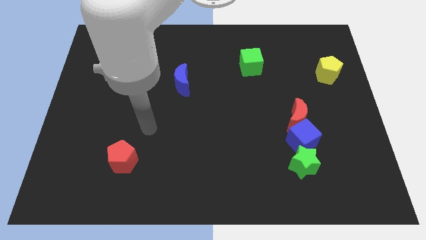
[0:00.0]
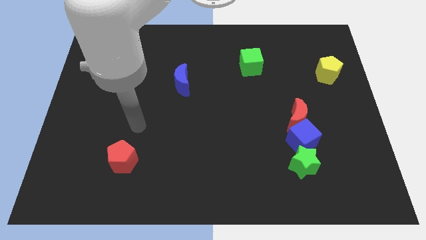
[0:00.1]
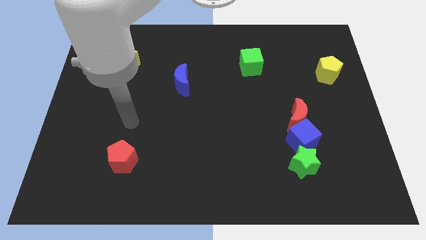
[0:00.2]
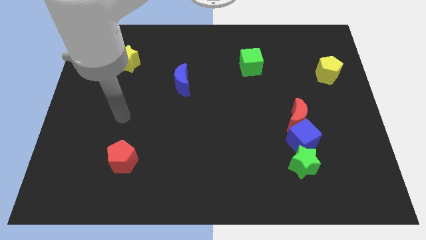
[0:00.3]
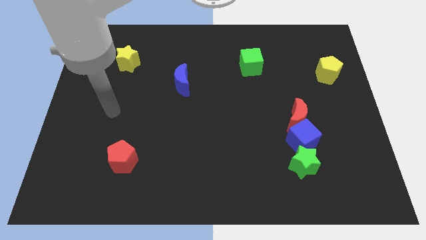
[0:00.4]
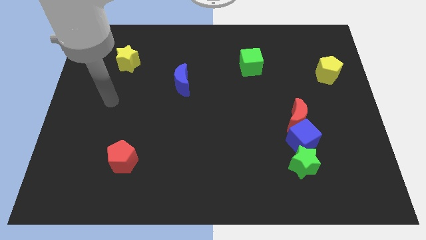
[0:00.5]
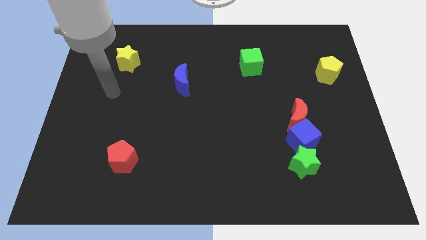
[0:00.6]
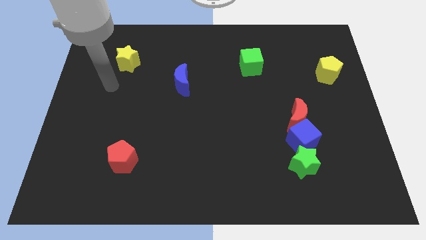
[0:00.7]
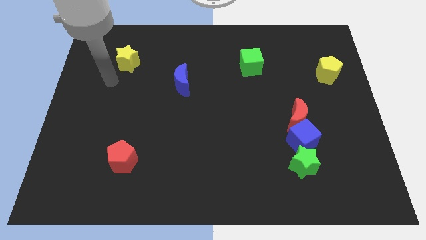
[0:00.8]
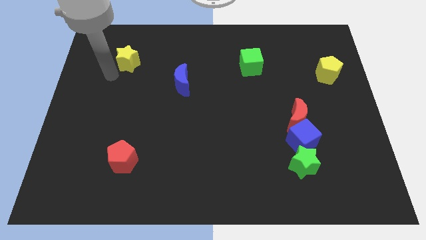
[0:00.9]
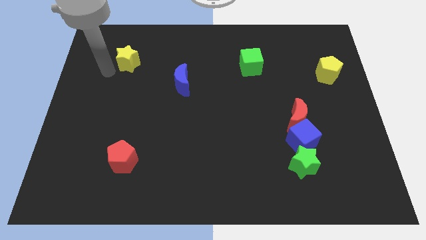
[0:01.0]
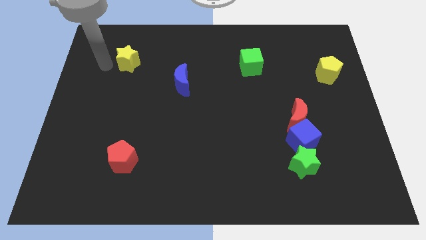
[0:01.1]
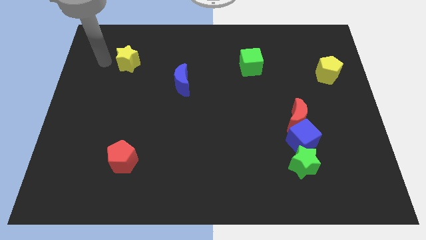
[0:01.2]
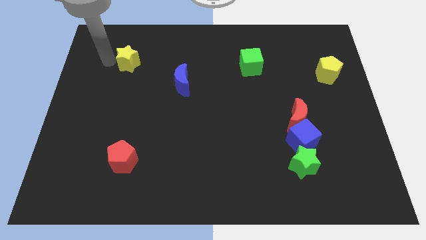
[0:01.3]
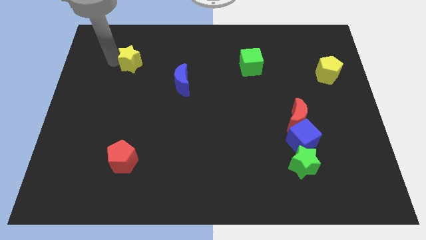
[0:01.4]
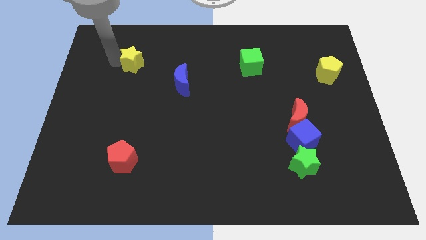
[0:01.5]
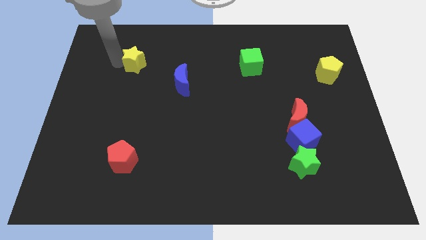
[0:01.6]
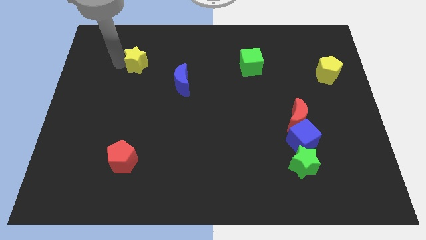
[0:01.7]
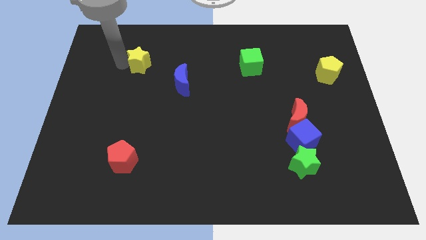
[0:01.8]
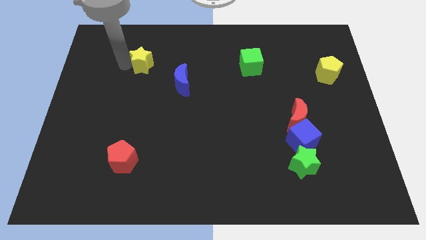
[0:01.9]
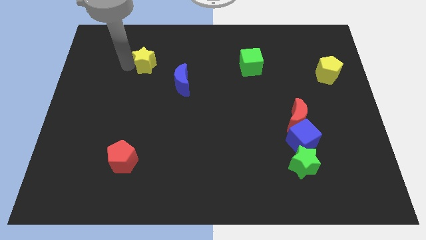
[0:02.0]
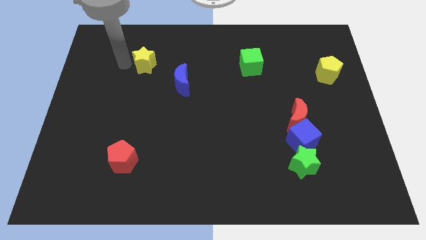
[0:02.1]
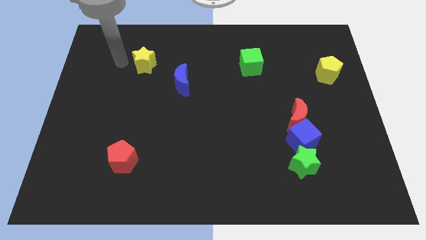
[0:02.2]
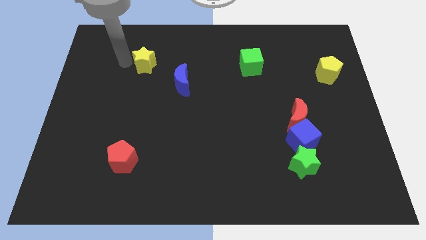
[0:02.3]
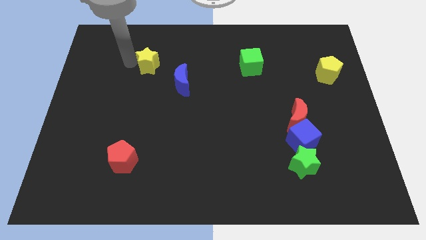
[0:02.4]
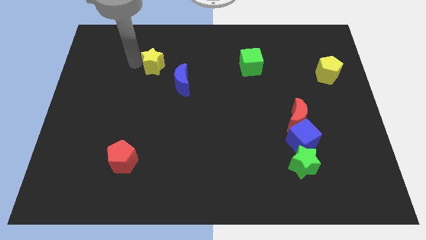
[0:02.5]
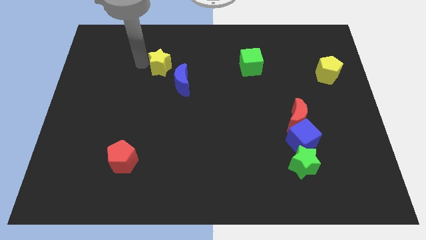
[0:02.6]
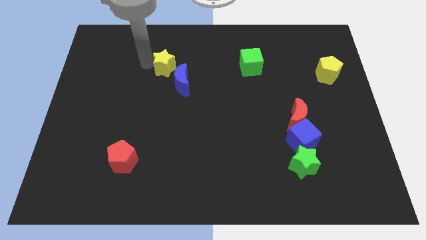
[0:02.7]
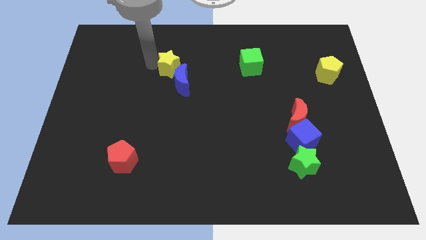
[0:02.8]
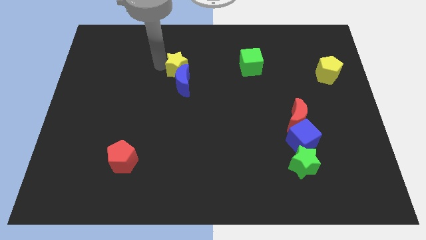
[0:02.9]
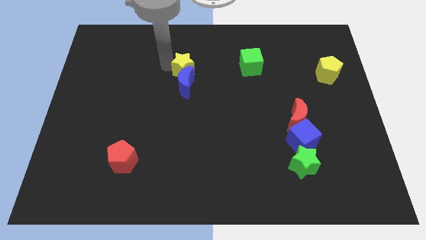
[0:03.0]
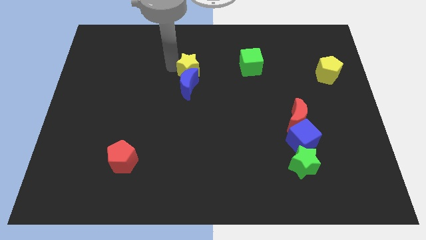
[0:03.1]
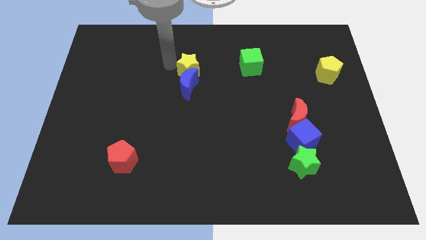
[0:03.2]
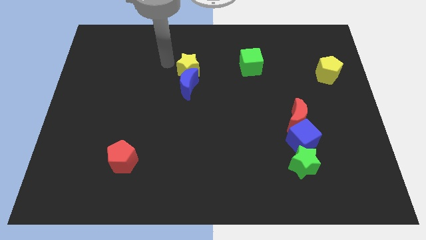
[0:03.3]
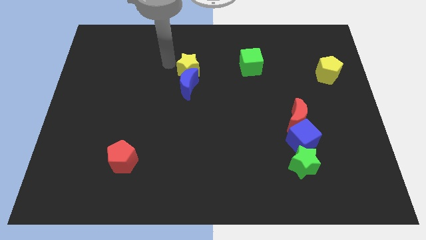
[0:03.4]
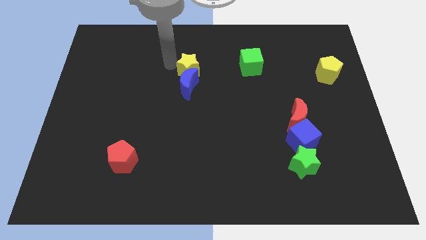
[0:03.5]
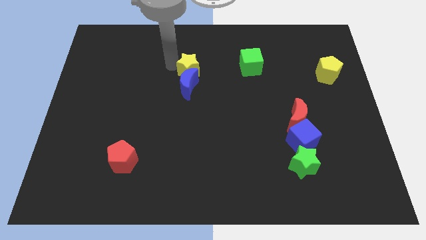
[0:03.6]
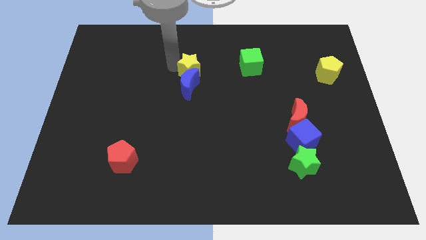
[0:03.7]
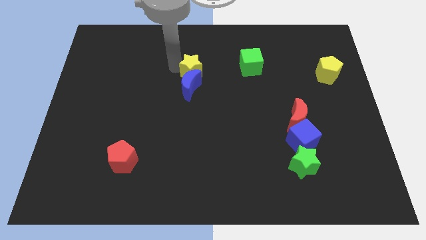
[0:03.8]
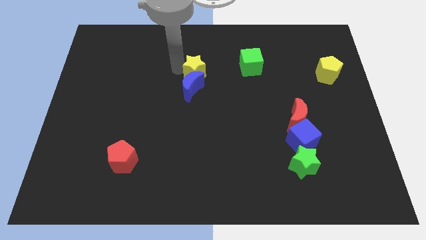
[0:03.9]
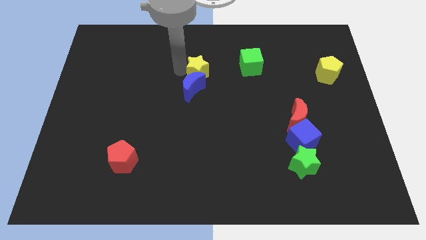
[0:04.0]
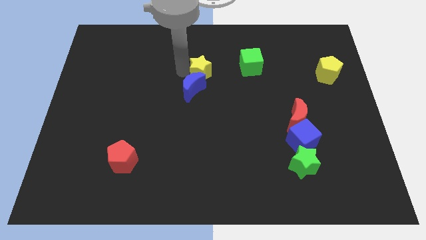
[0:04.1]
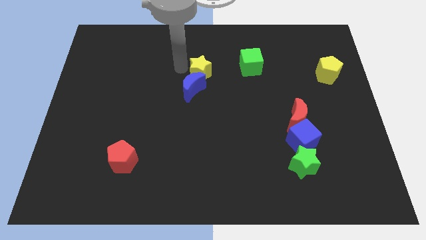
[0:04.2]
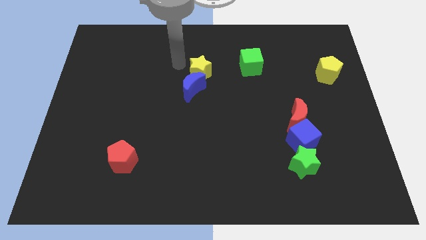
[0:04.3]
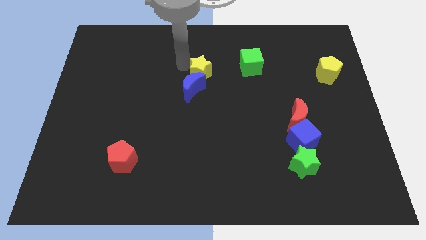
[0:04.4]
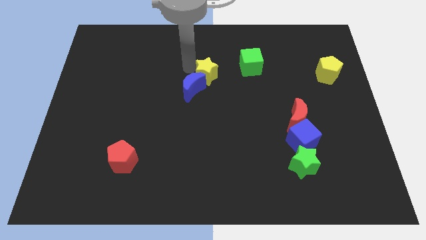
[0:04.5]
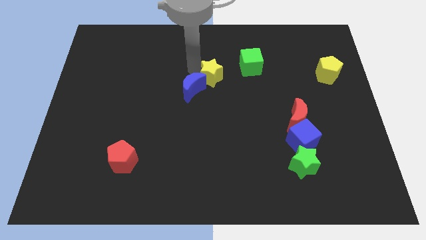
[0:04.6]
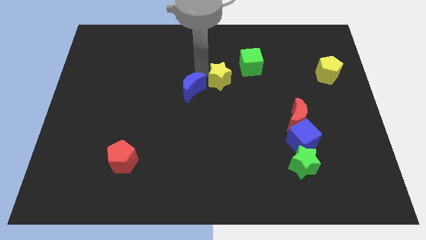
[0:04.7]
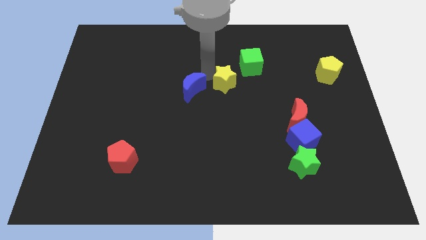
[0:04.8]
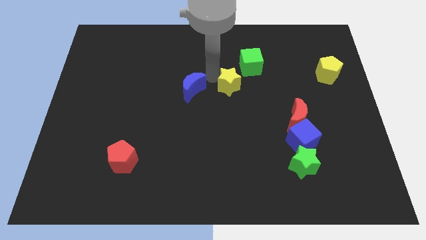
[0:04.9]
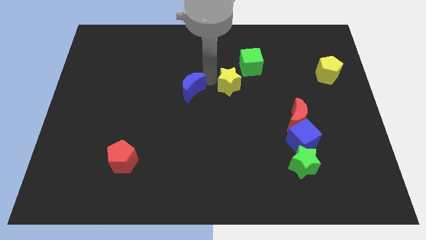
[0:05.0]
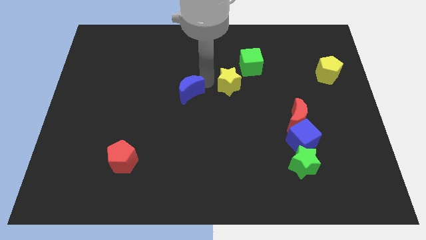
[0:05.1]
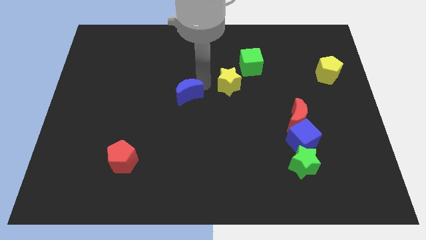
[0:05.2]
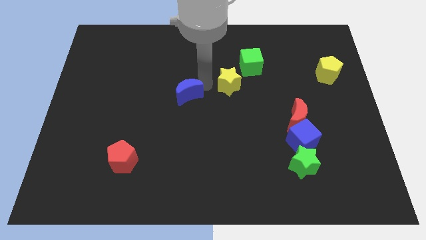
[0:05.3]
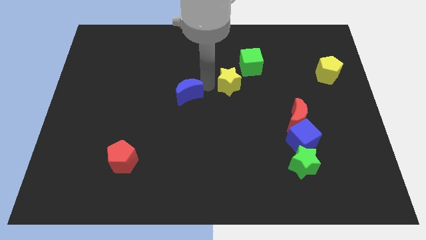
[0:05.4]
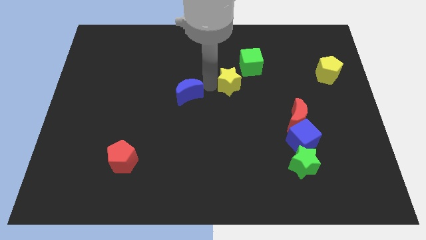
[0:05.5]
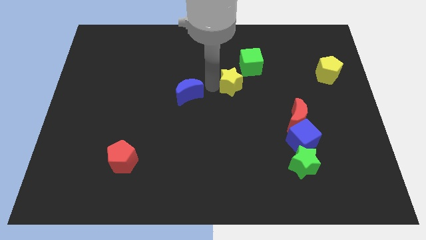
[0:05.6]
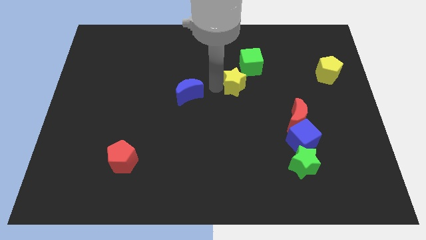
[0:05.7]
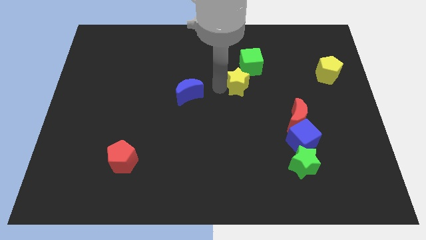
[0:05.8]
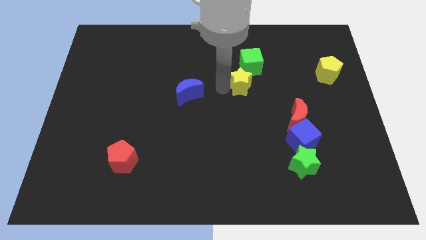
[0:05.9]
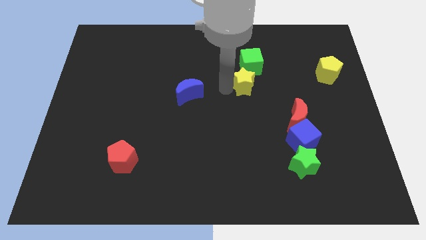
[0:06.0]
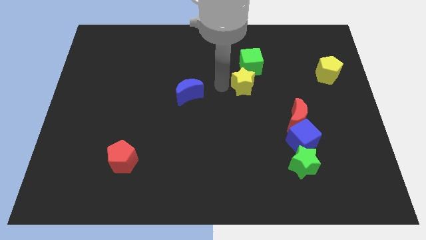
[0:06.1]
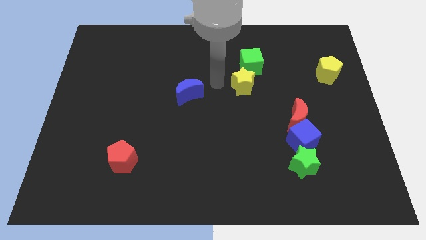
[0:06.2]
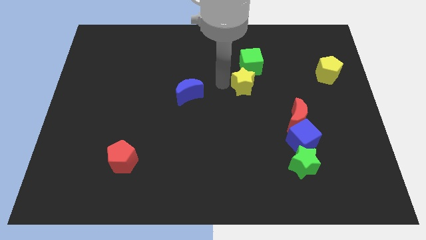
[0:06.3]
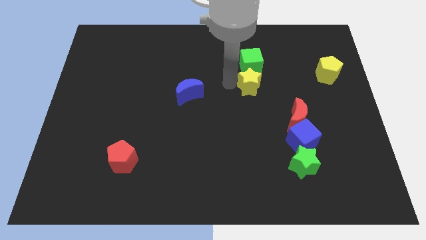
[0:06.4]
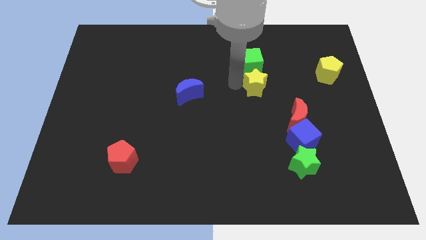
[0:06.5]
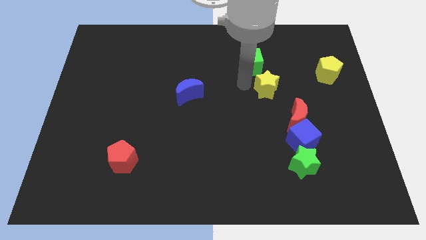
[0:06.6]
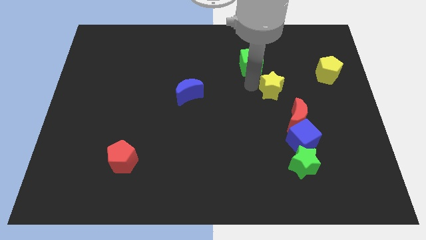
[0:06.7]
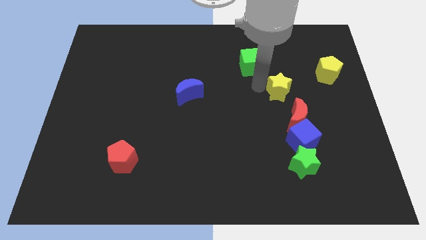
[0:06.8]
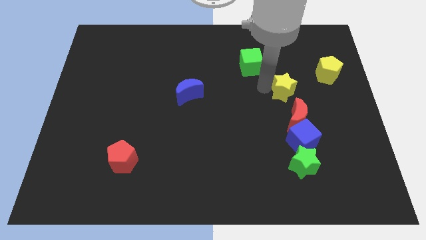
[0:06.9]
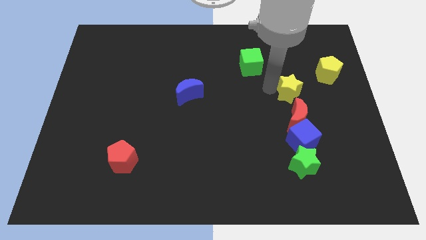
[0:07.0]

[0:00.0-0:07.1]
move the yellow star to the bottom left side of the yellow pentagon
